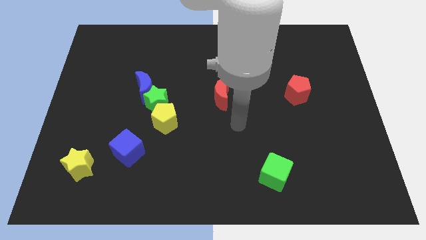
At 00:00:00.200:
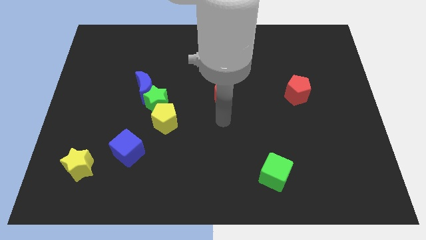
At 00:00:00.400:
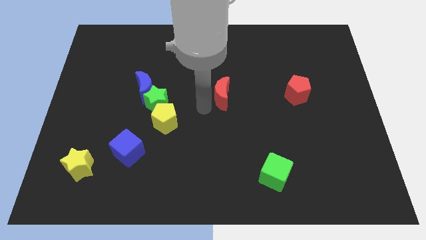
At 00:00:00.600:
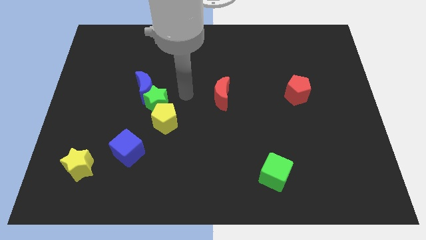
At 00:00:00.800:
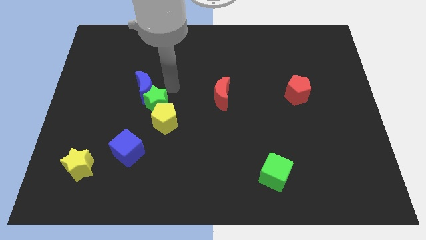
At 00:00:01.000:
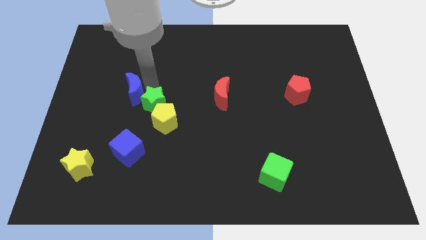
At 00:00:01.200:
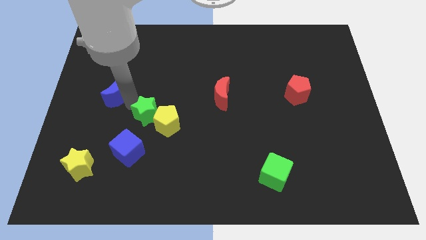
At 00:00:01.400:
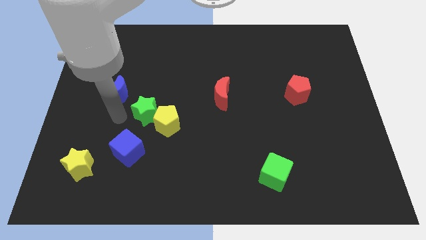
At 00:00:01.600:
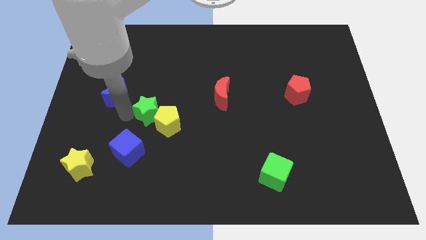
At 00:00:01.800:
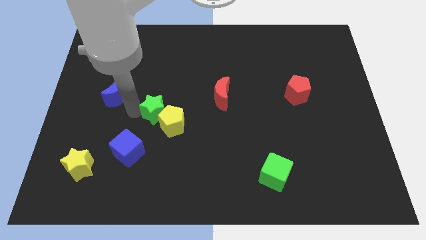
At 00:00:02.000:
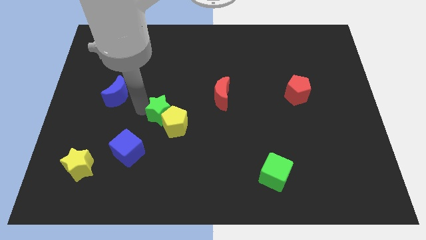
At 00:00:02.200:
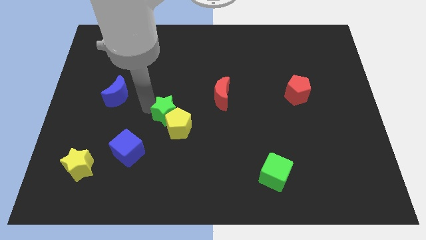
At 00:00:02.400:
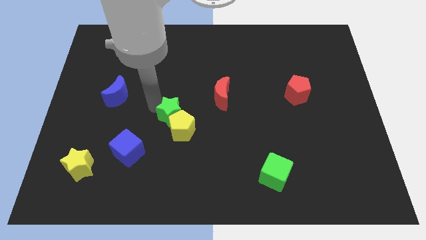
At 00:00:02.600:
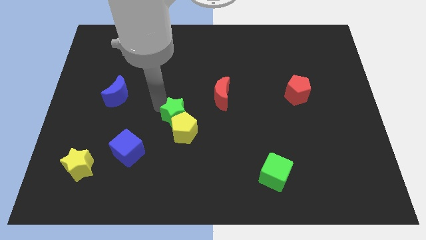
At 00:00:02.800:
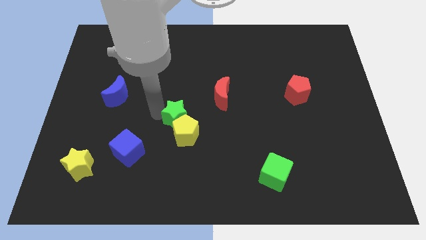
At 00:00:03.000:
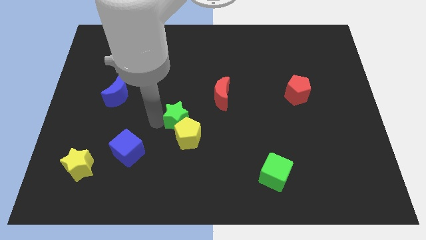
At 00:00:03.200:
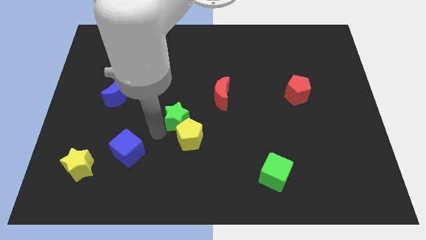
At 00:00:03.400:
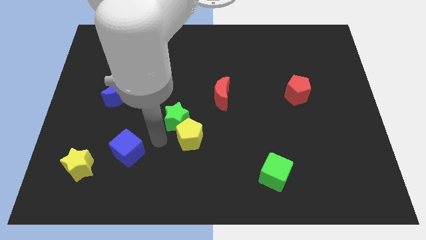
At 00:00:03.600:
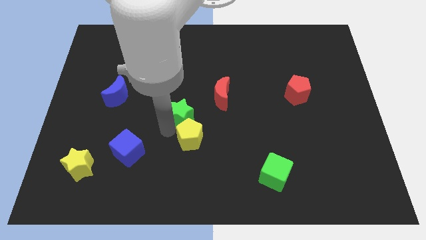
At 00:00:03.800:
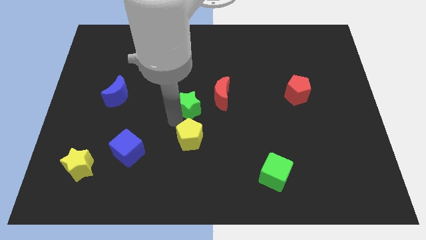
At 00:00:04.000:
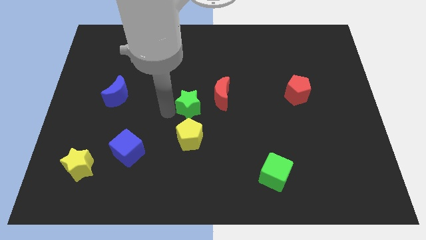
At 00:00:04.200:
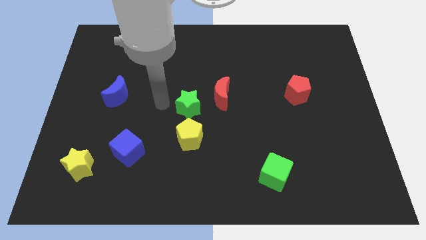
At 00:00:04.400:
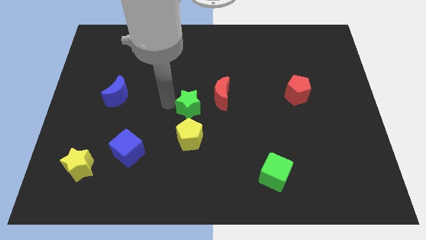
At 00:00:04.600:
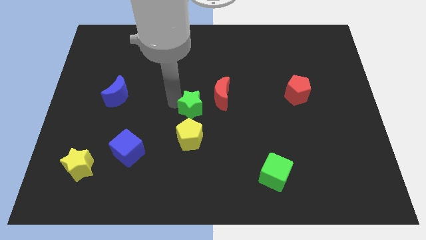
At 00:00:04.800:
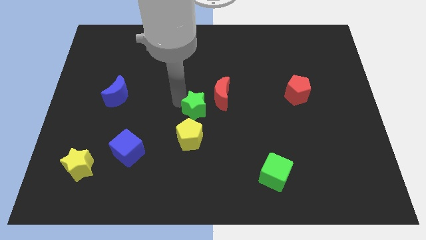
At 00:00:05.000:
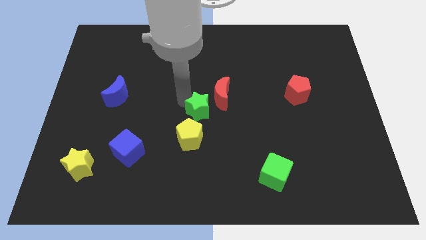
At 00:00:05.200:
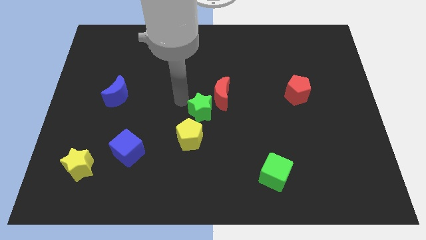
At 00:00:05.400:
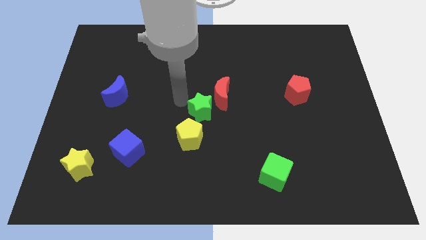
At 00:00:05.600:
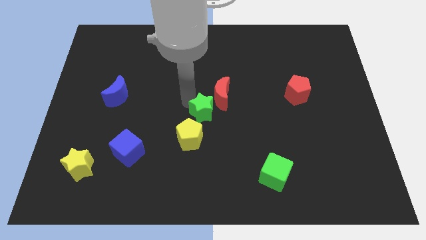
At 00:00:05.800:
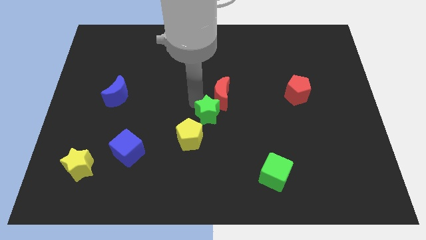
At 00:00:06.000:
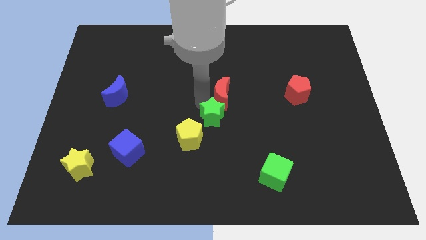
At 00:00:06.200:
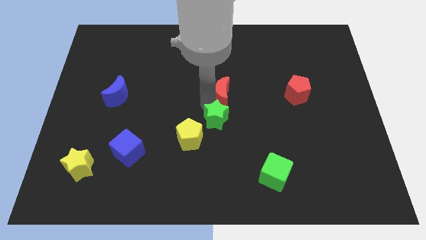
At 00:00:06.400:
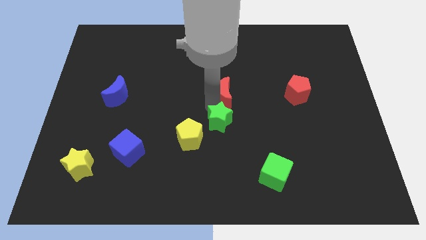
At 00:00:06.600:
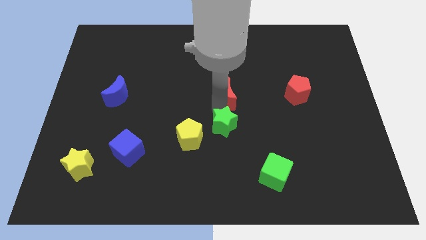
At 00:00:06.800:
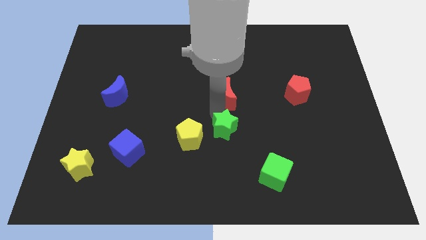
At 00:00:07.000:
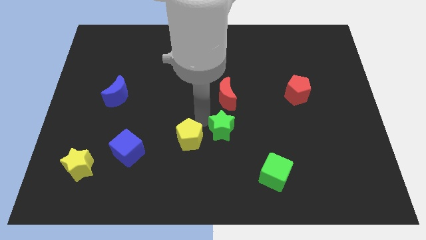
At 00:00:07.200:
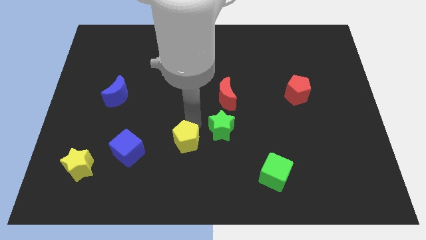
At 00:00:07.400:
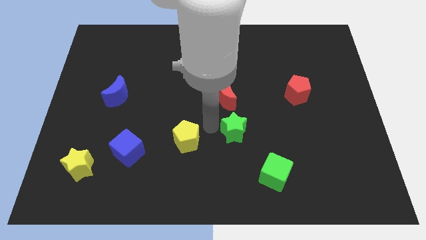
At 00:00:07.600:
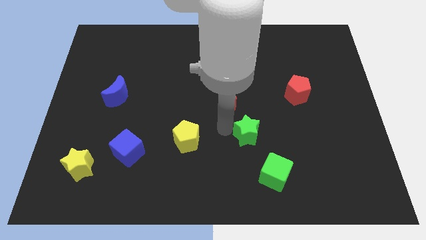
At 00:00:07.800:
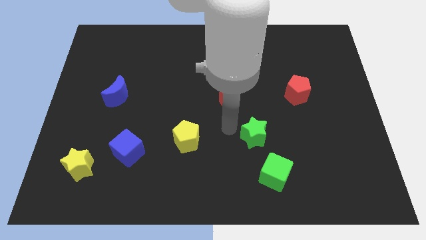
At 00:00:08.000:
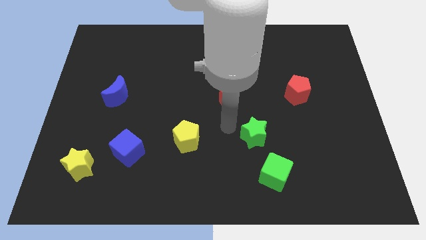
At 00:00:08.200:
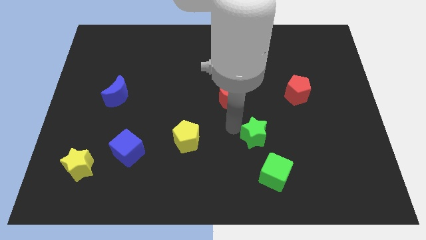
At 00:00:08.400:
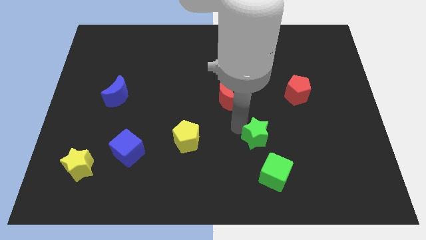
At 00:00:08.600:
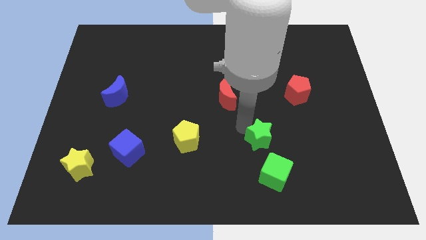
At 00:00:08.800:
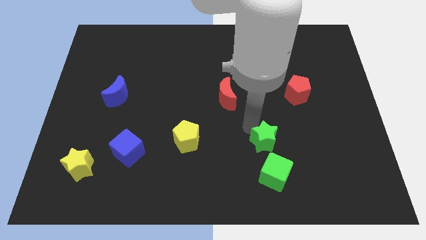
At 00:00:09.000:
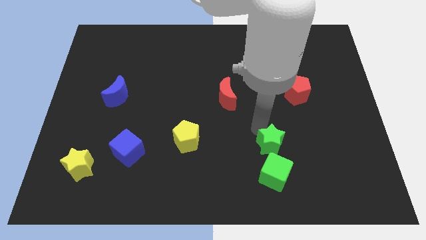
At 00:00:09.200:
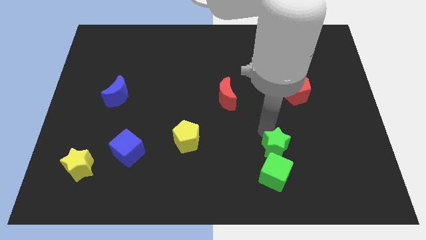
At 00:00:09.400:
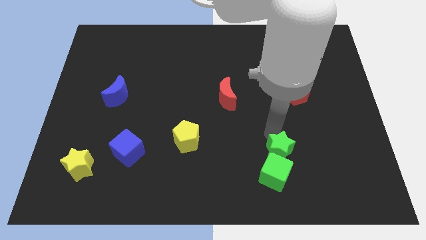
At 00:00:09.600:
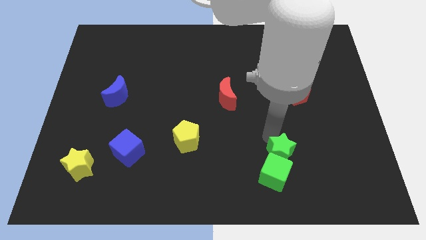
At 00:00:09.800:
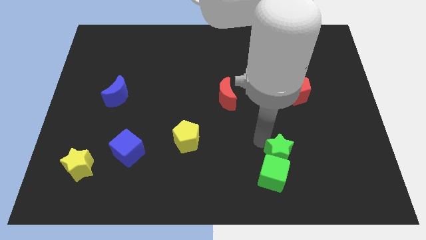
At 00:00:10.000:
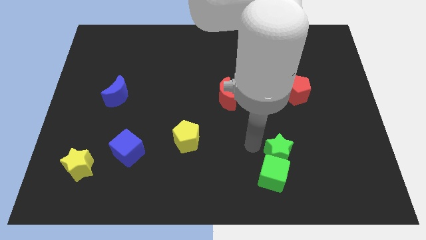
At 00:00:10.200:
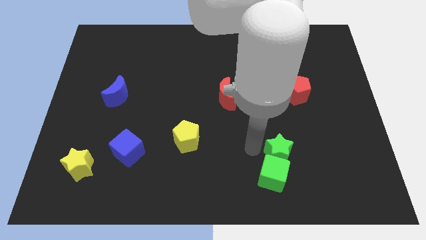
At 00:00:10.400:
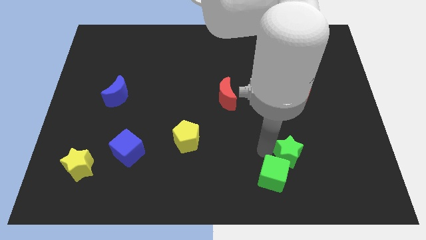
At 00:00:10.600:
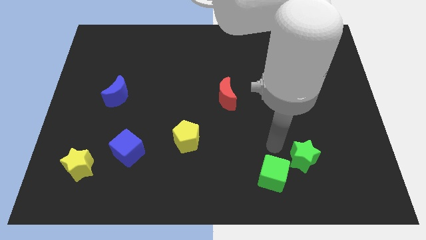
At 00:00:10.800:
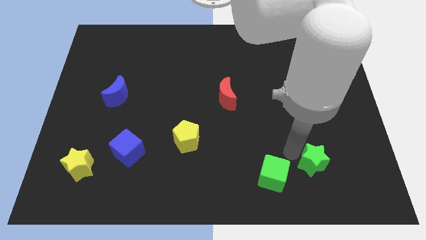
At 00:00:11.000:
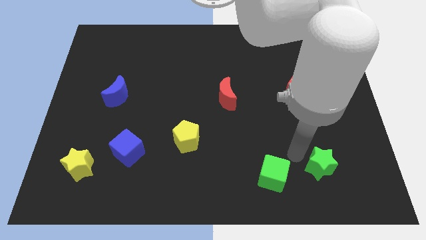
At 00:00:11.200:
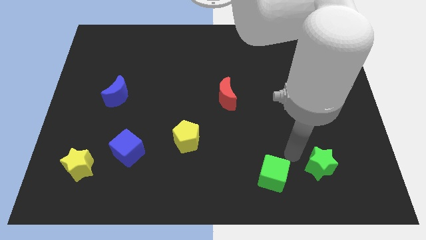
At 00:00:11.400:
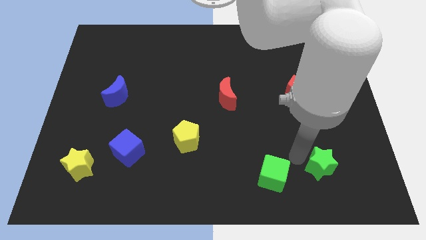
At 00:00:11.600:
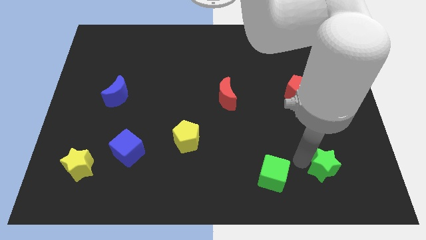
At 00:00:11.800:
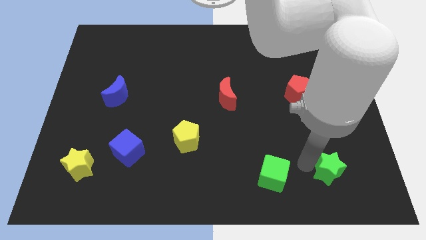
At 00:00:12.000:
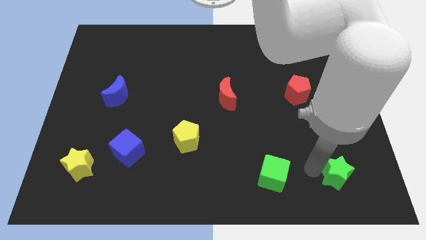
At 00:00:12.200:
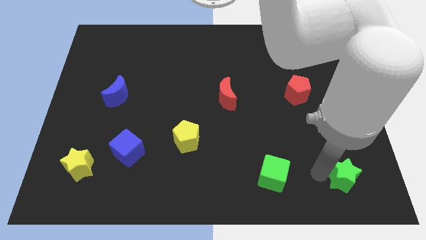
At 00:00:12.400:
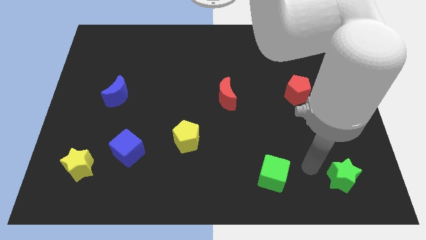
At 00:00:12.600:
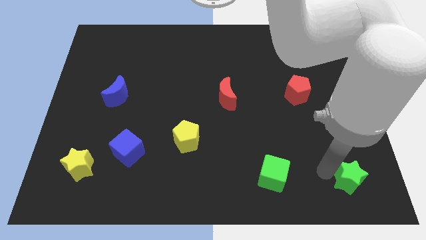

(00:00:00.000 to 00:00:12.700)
push the green star to the bottom right
